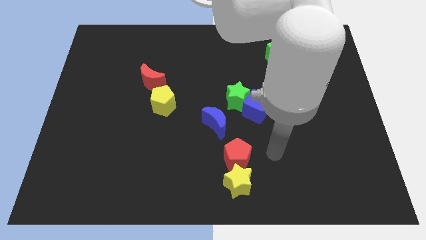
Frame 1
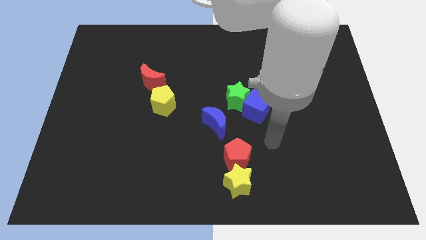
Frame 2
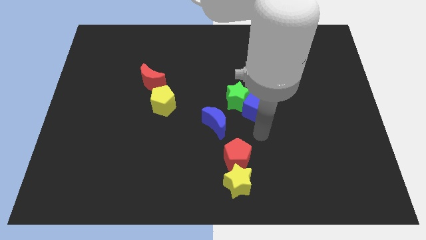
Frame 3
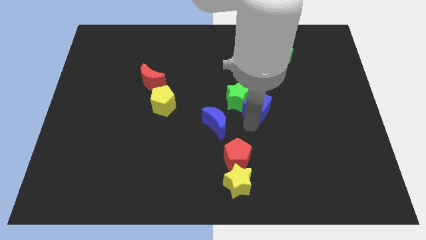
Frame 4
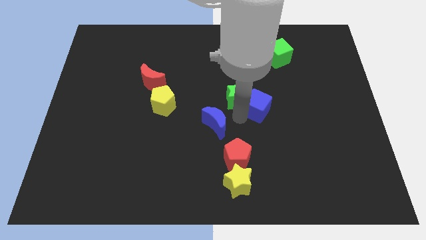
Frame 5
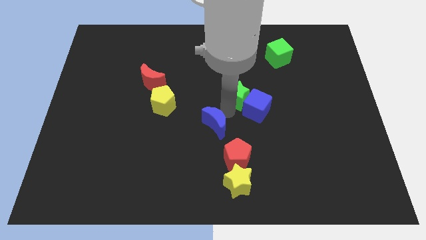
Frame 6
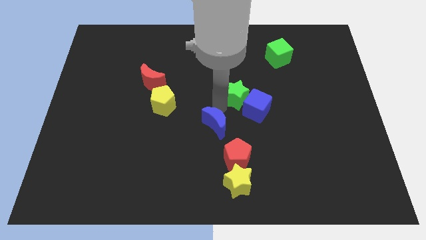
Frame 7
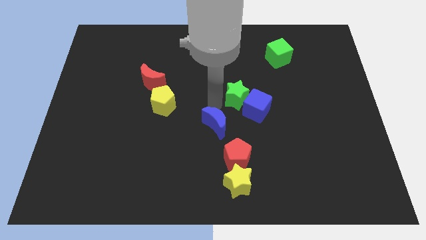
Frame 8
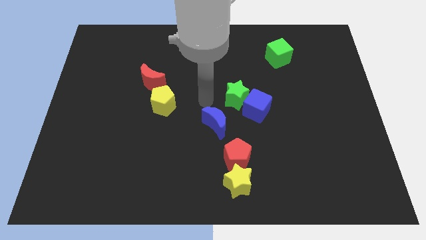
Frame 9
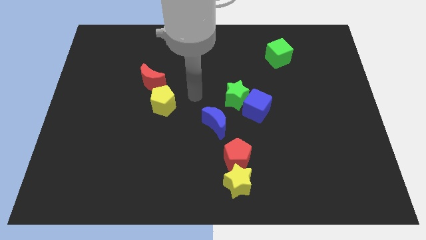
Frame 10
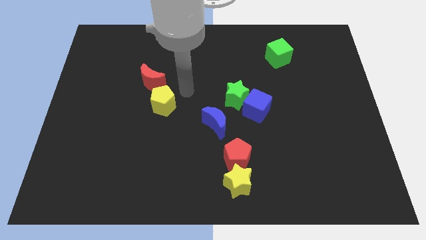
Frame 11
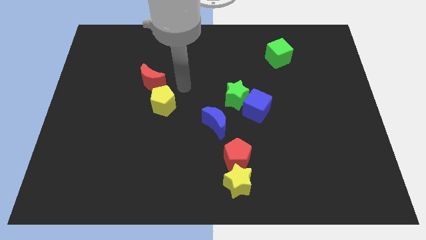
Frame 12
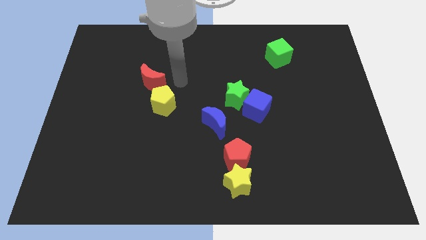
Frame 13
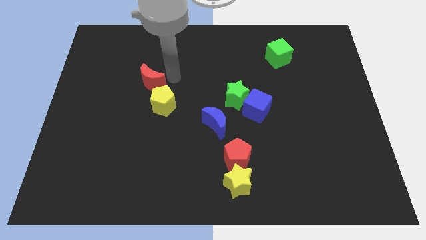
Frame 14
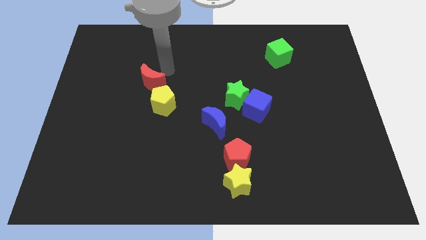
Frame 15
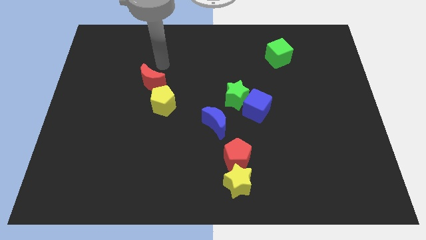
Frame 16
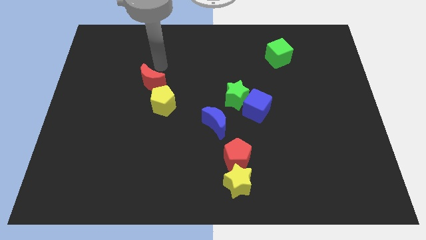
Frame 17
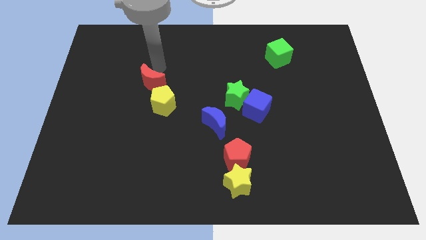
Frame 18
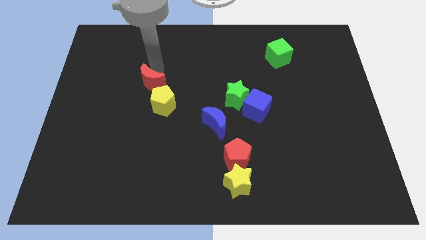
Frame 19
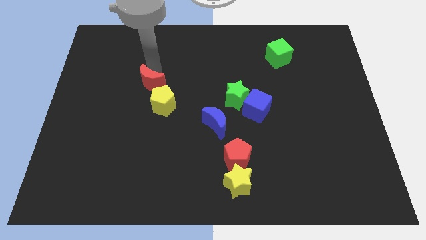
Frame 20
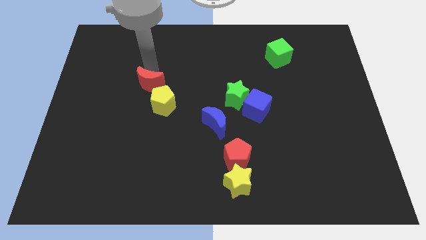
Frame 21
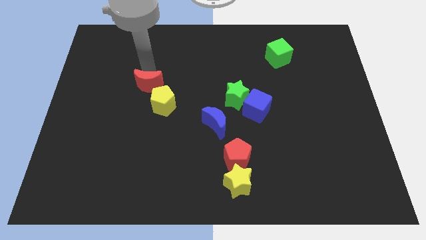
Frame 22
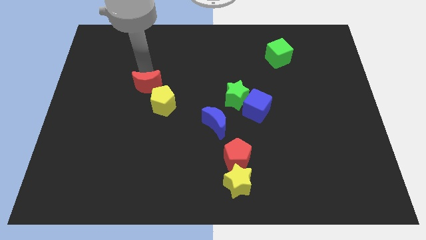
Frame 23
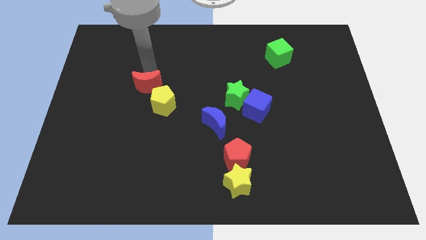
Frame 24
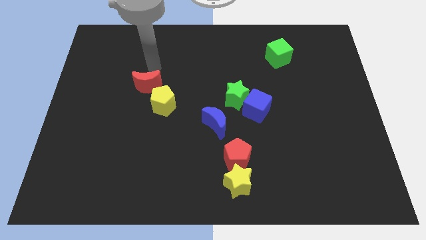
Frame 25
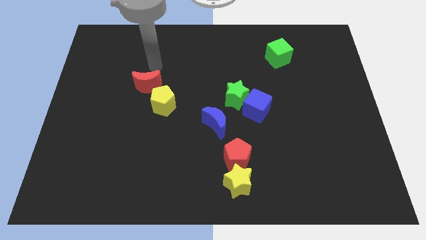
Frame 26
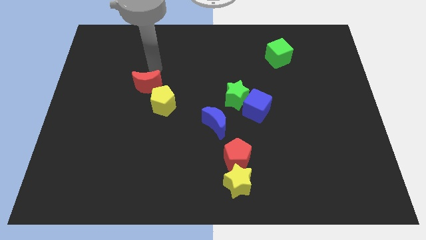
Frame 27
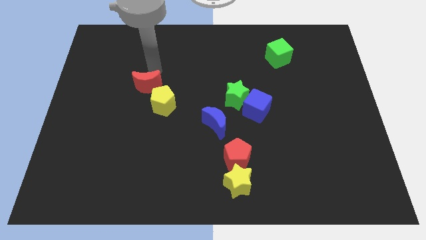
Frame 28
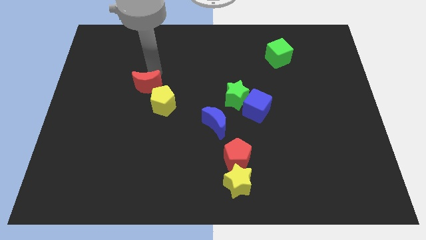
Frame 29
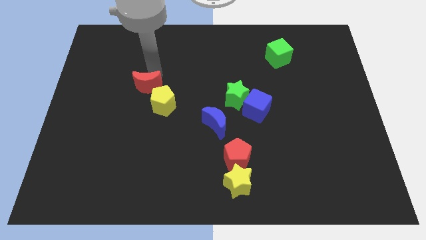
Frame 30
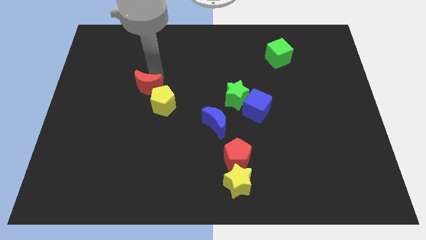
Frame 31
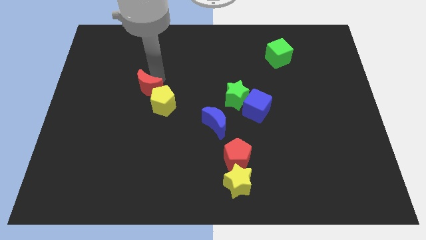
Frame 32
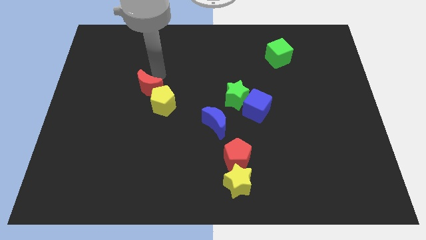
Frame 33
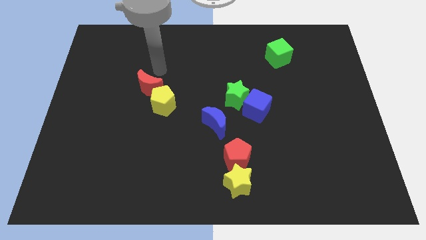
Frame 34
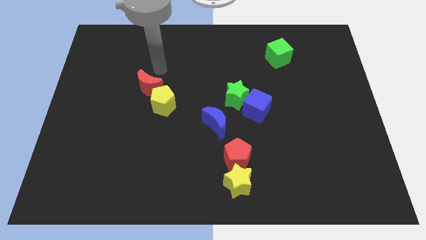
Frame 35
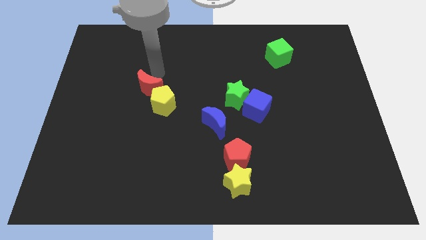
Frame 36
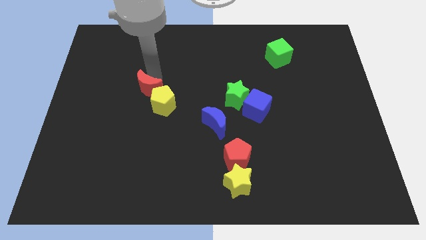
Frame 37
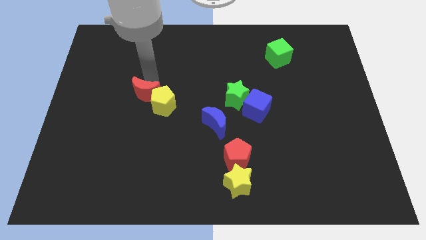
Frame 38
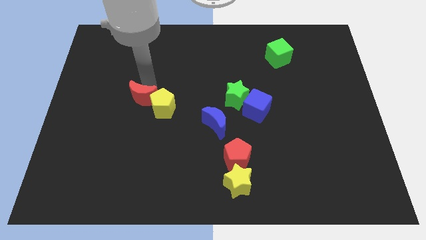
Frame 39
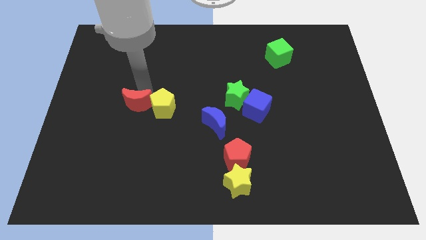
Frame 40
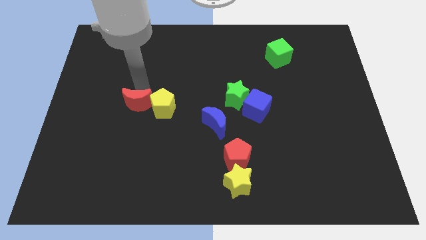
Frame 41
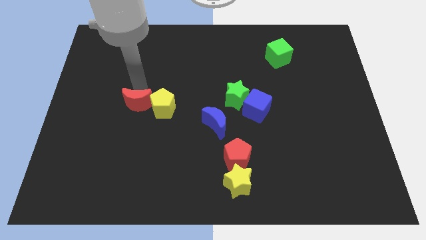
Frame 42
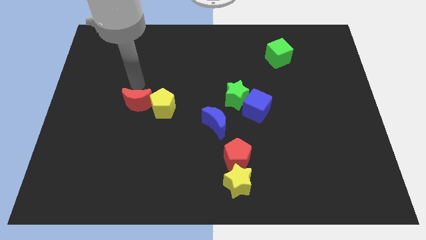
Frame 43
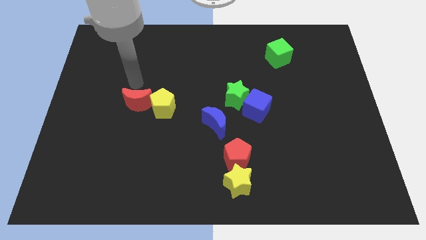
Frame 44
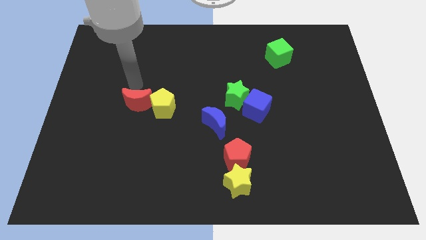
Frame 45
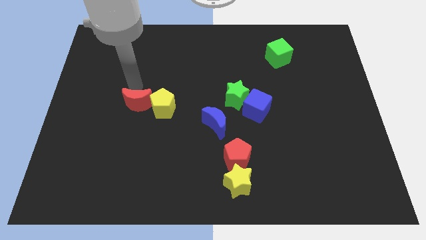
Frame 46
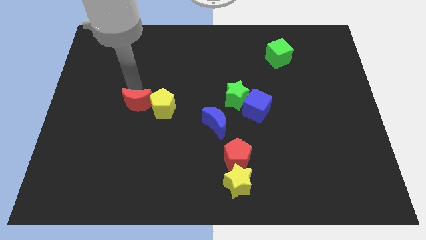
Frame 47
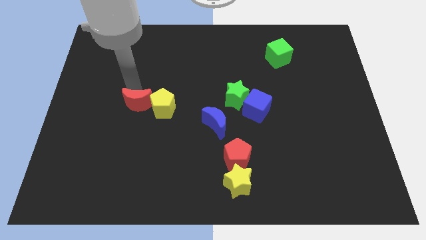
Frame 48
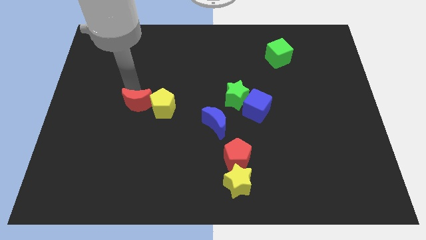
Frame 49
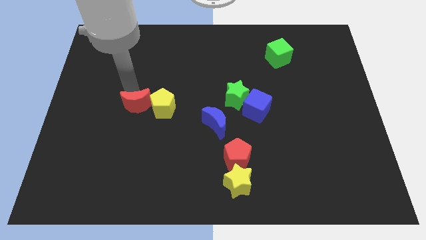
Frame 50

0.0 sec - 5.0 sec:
push the red moon a little down

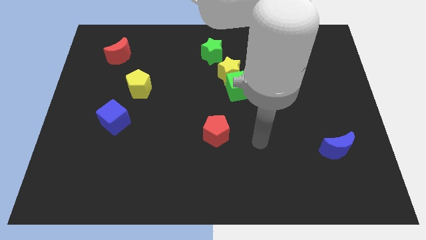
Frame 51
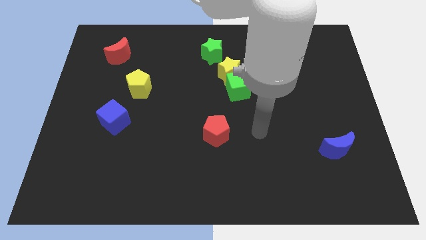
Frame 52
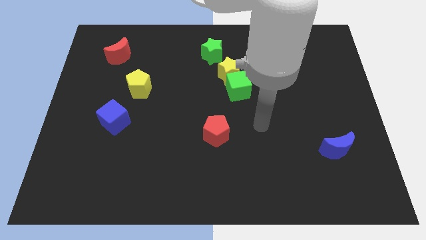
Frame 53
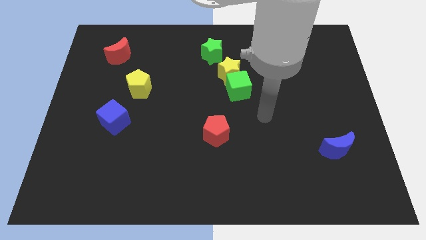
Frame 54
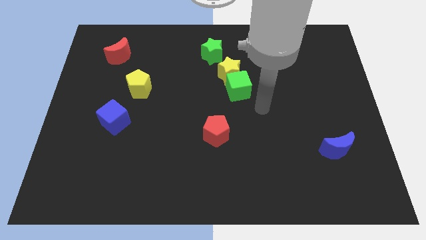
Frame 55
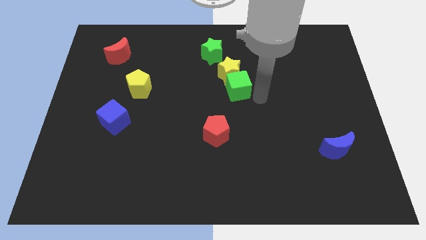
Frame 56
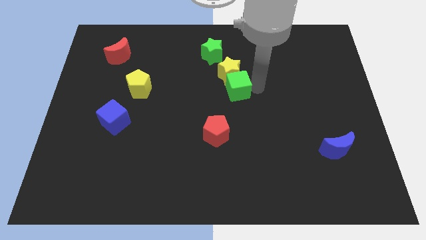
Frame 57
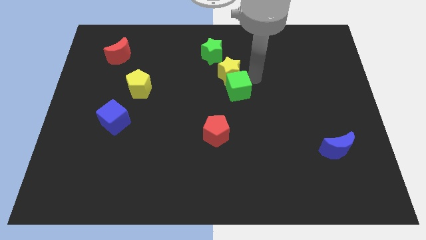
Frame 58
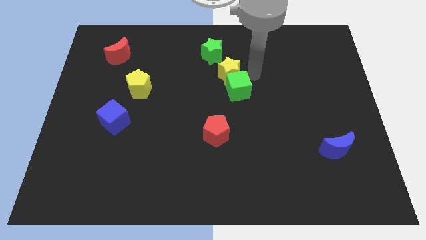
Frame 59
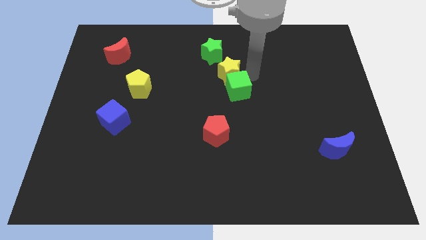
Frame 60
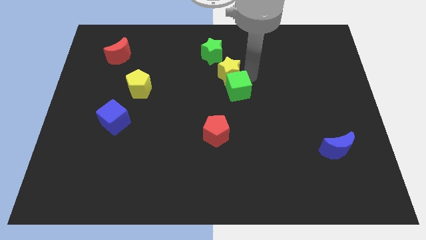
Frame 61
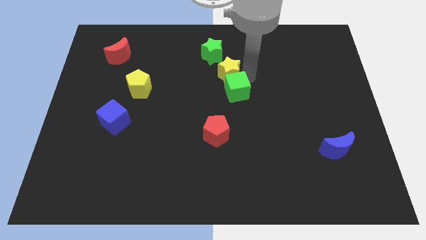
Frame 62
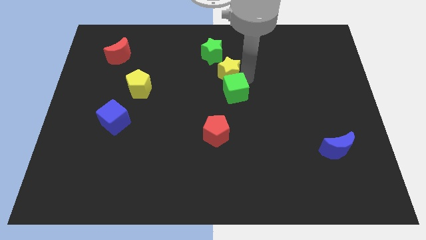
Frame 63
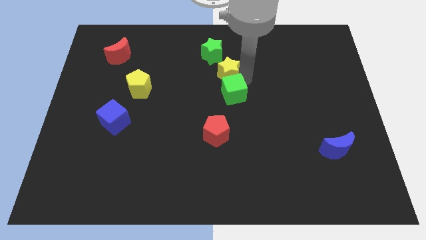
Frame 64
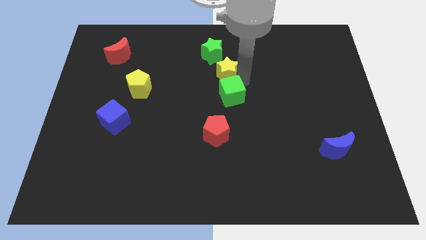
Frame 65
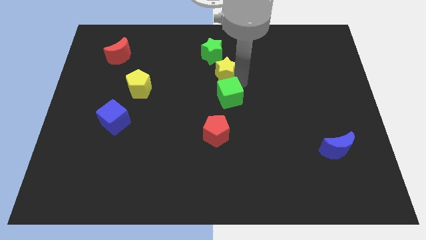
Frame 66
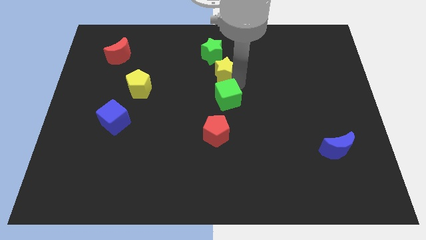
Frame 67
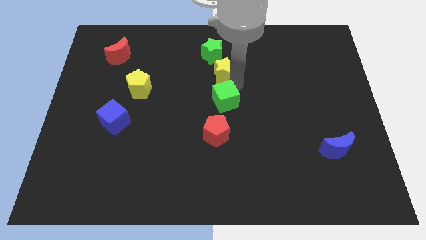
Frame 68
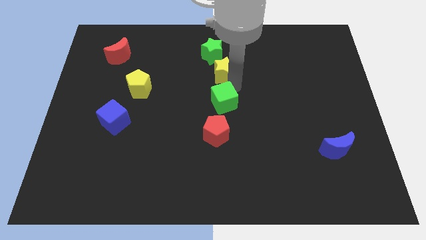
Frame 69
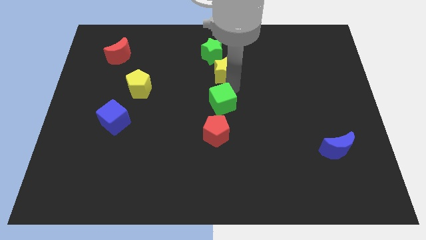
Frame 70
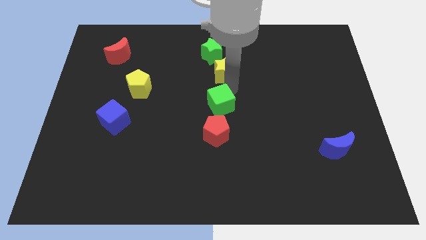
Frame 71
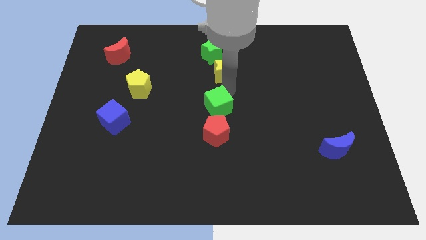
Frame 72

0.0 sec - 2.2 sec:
push the green cube diagonally down and to the left a little bit

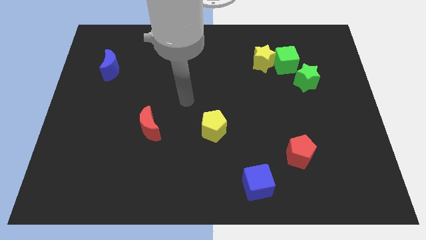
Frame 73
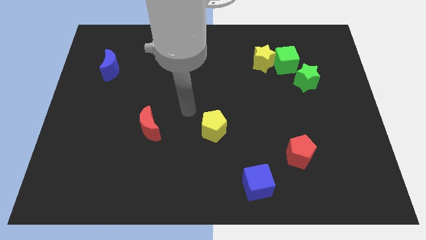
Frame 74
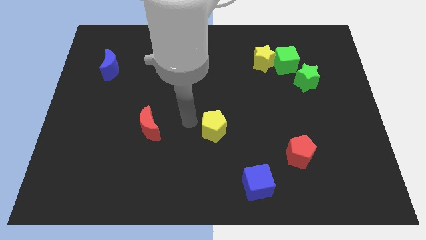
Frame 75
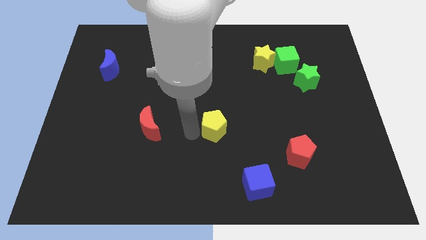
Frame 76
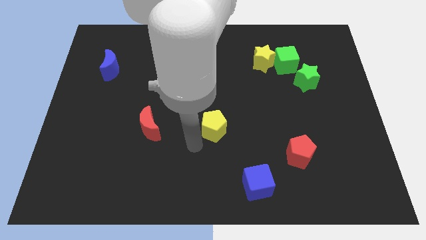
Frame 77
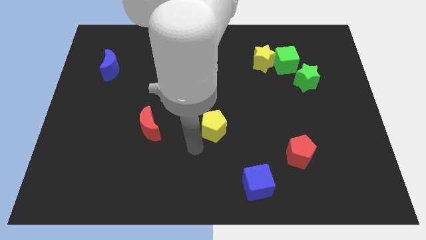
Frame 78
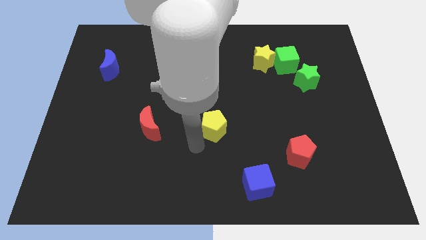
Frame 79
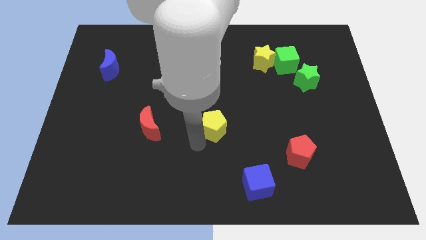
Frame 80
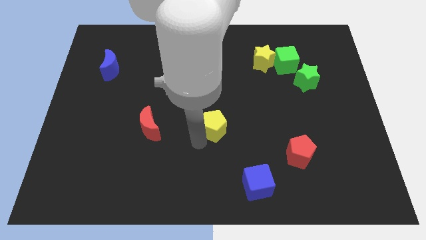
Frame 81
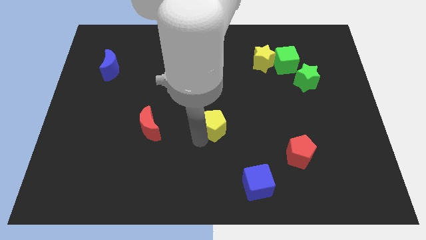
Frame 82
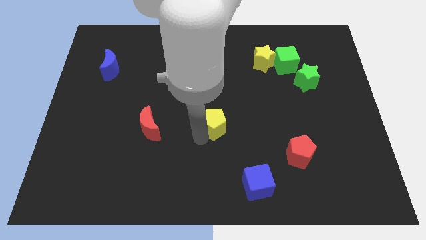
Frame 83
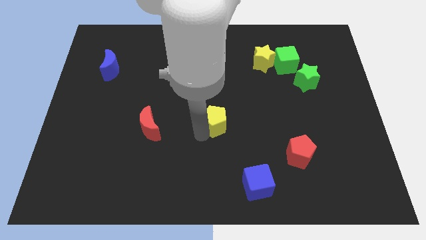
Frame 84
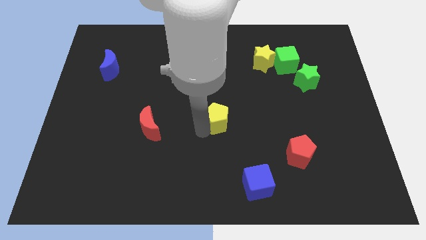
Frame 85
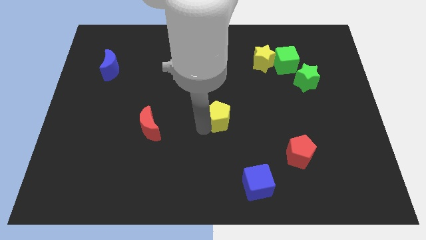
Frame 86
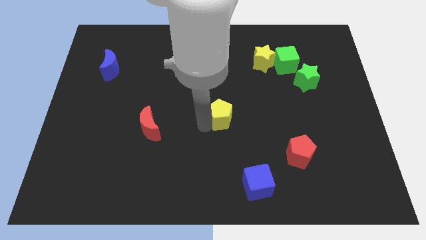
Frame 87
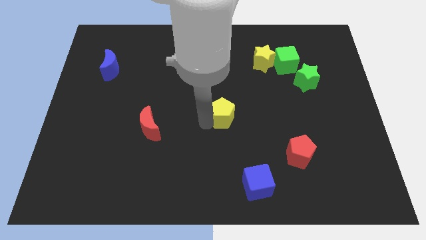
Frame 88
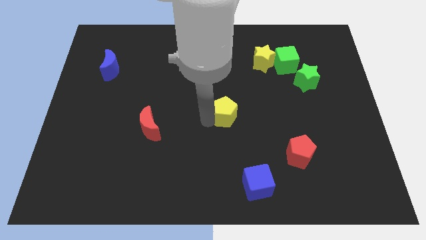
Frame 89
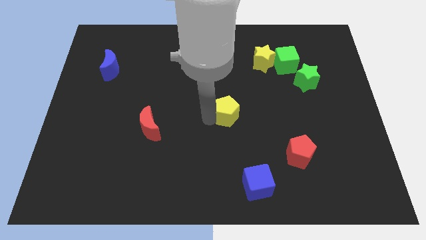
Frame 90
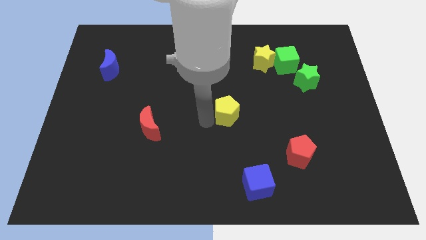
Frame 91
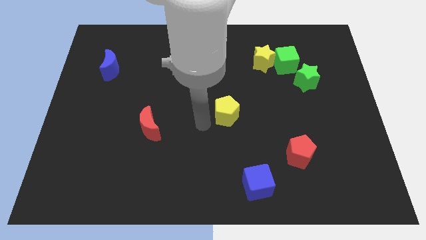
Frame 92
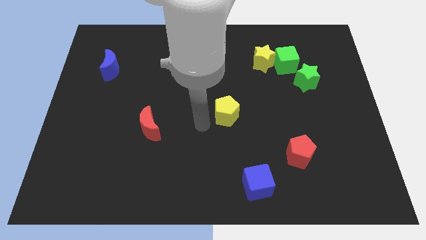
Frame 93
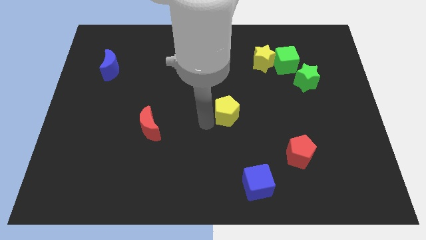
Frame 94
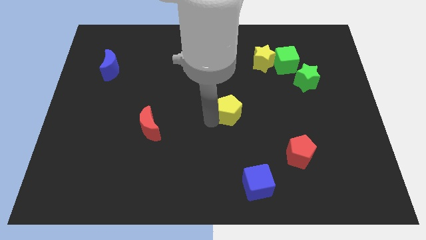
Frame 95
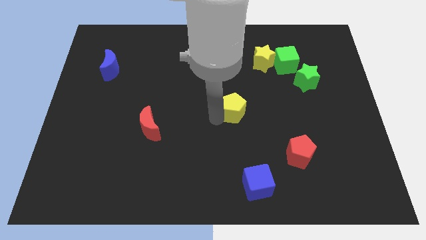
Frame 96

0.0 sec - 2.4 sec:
move the yellow pentagon upwards and then to the right a bit
